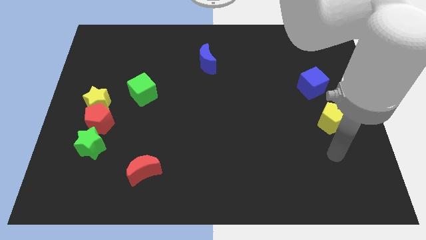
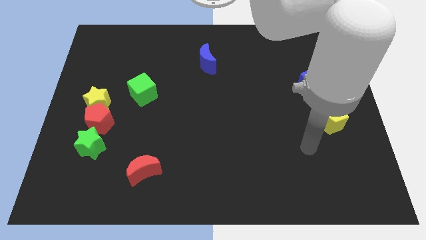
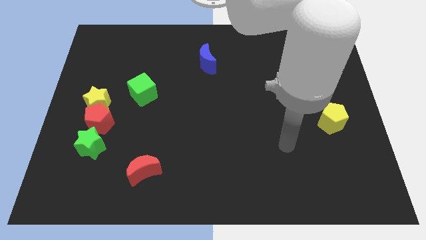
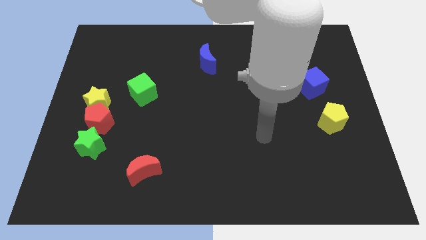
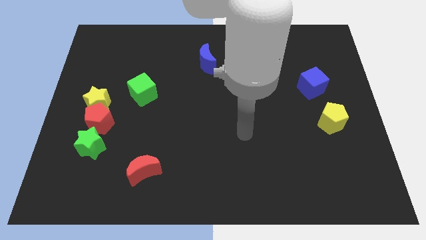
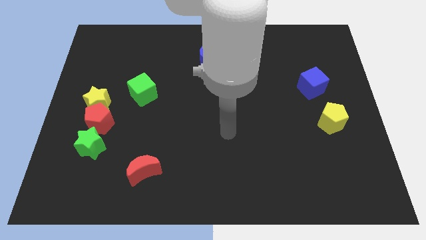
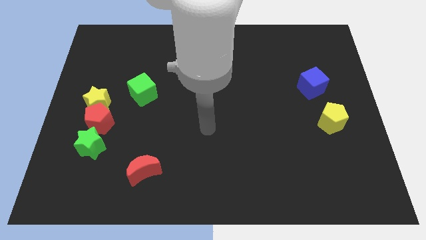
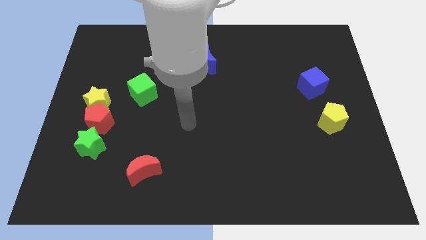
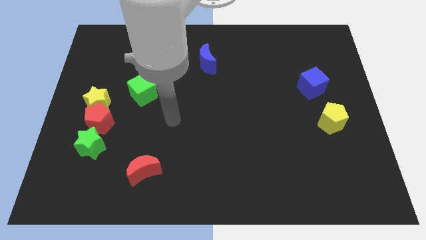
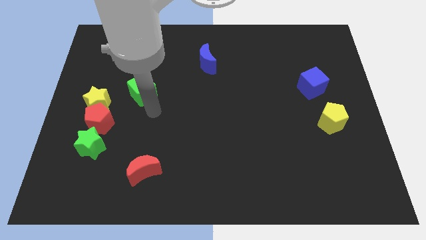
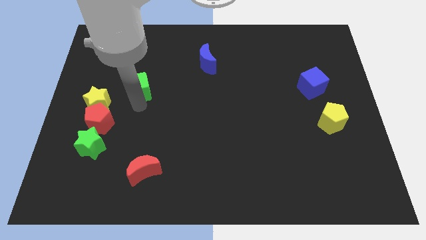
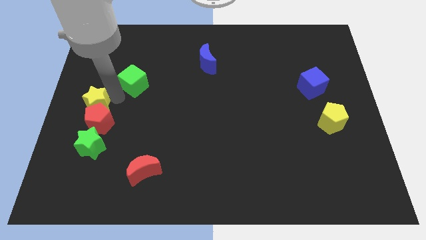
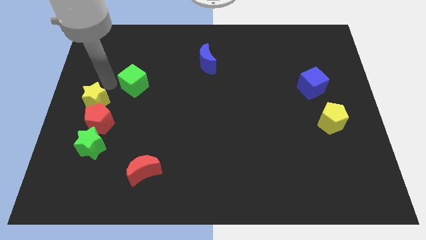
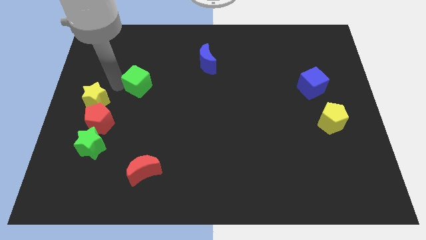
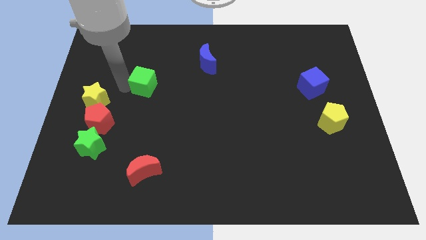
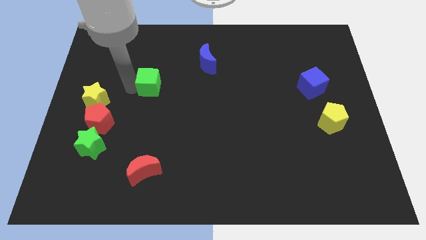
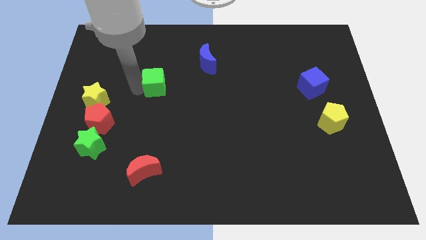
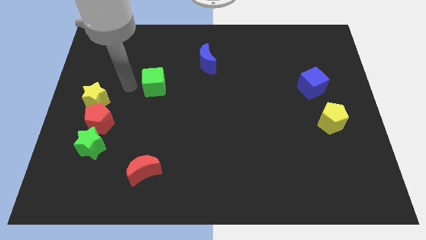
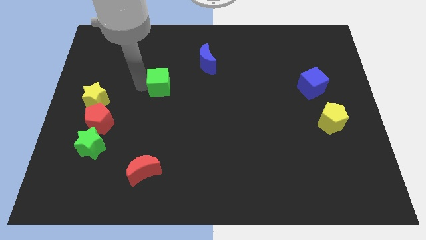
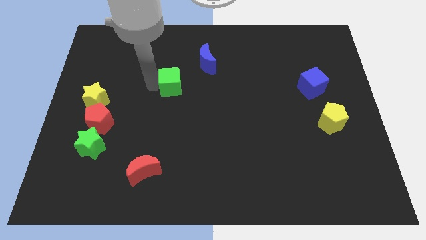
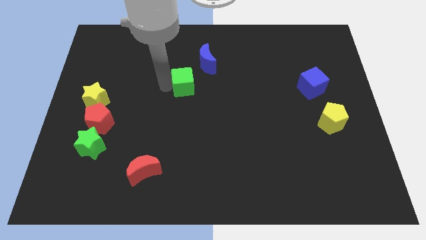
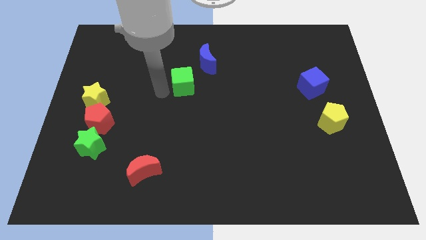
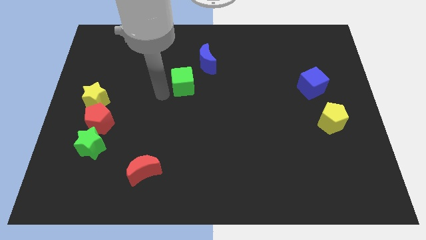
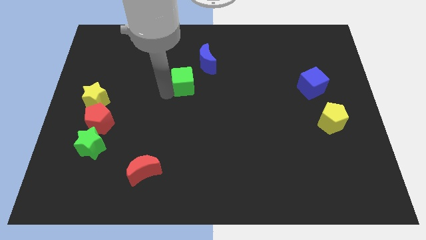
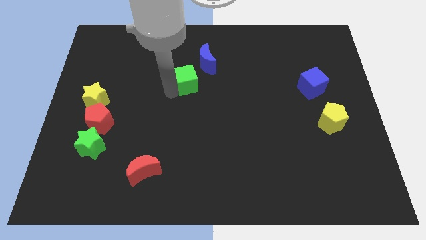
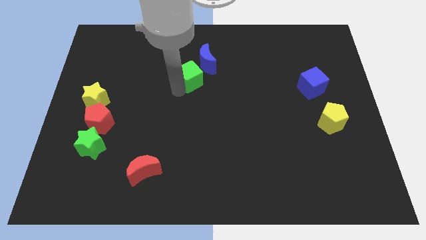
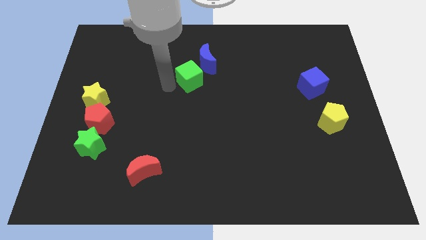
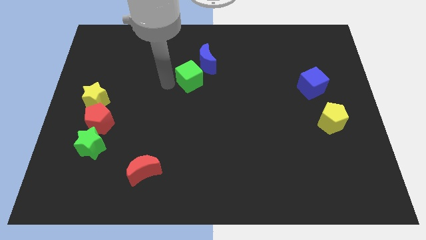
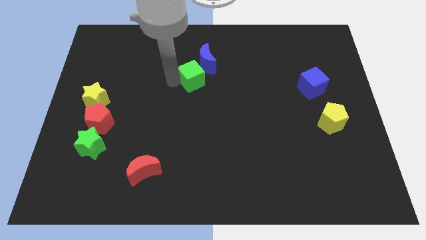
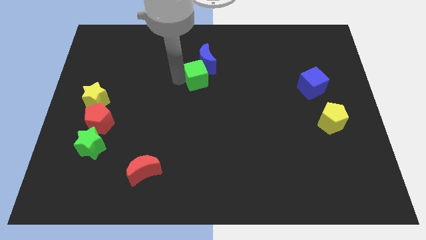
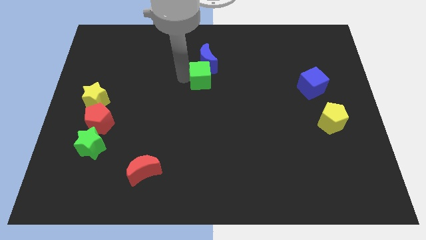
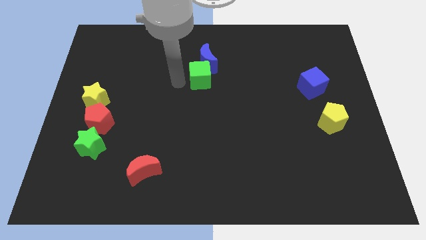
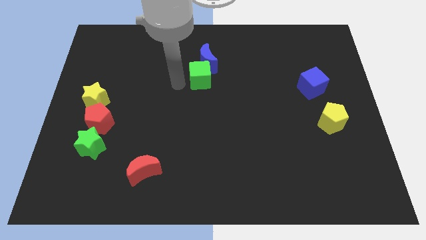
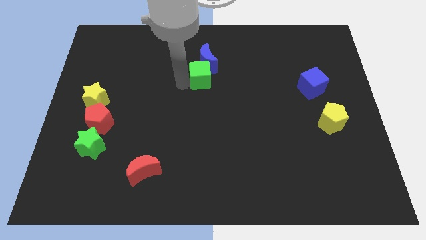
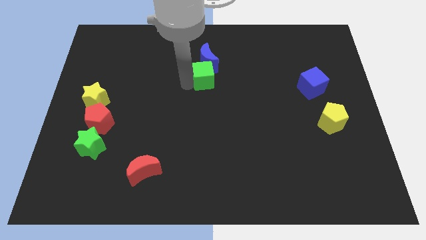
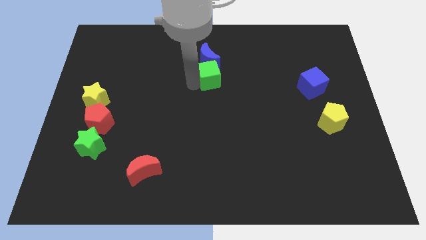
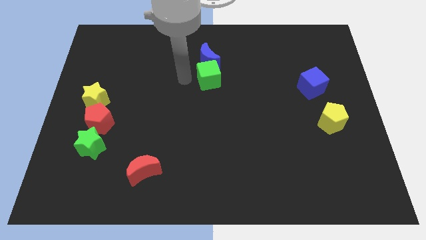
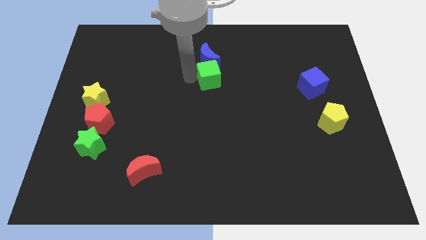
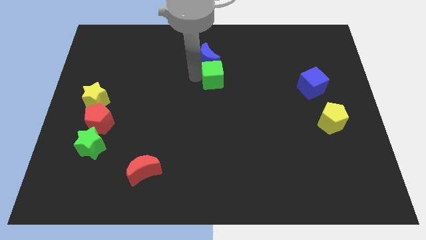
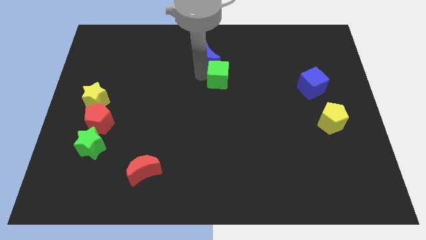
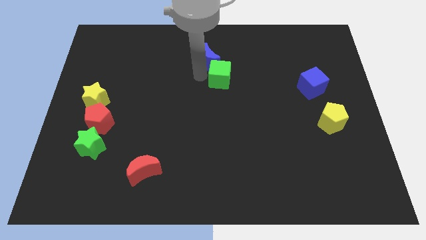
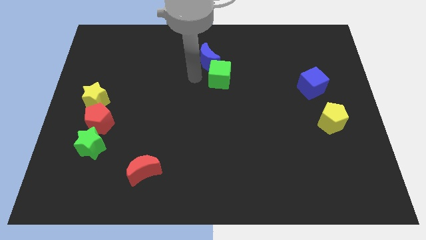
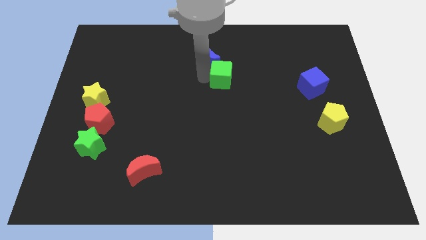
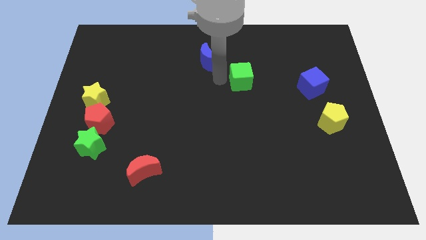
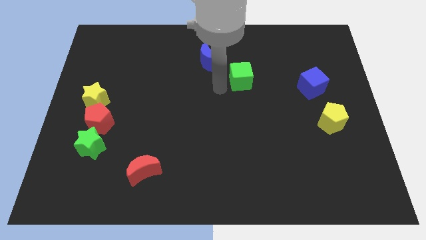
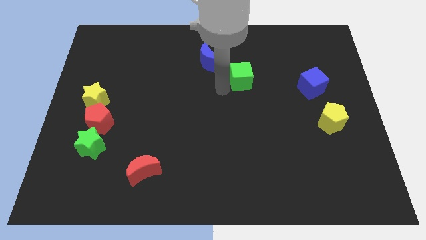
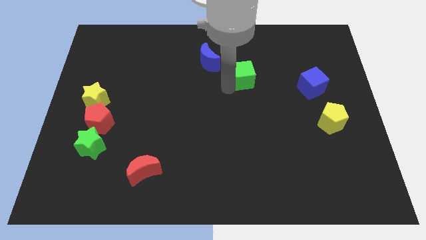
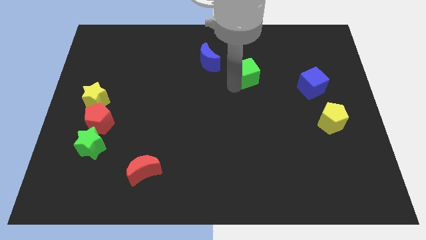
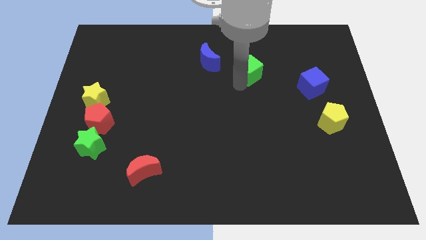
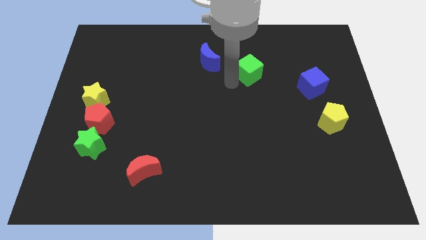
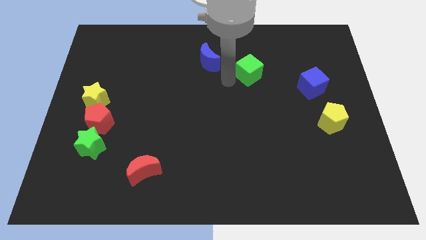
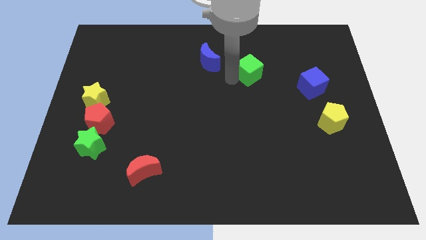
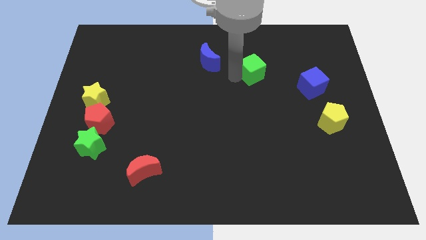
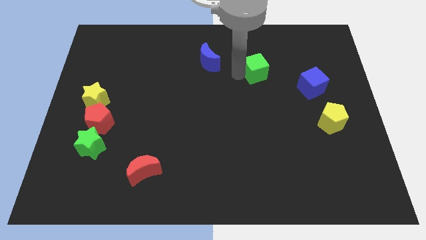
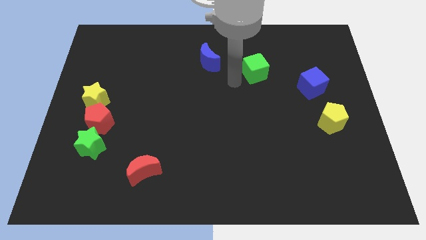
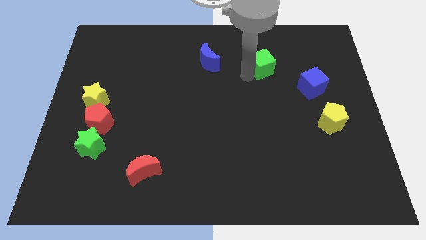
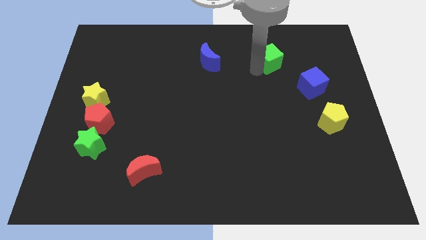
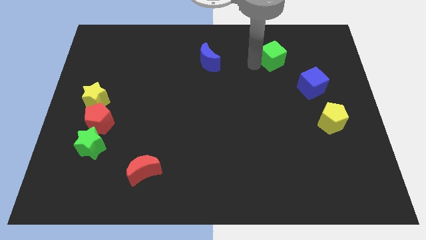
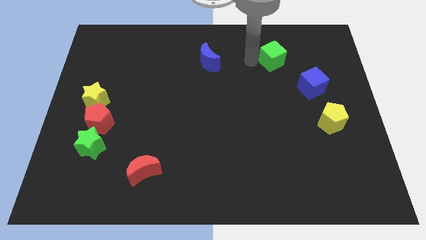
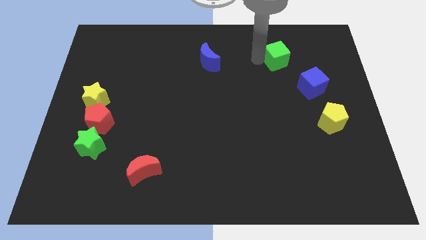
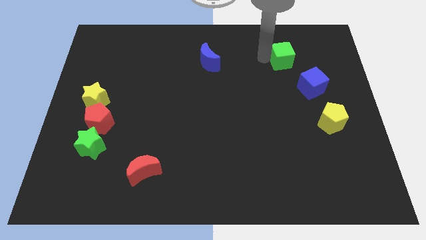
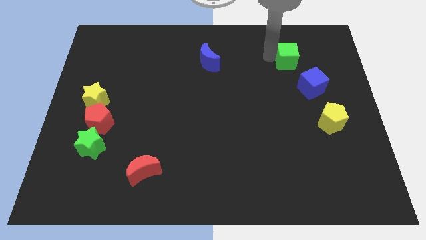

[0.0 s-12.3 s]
slide the green cube to the top of the blue cube

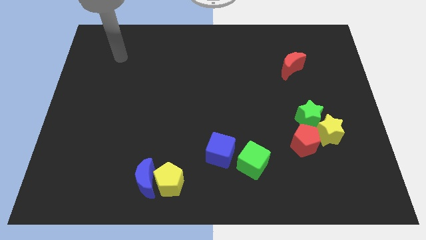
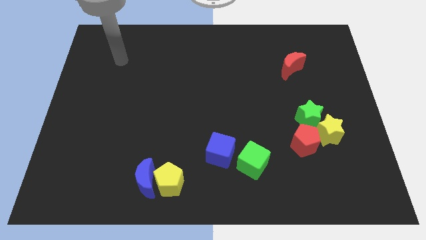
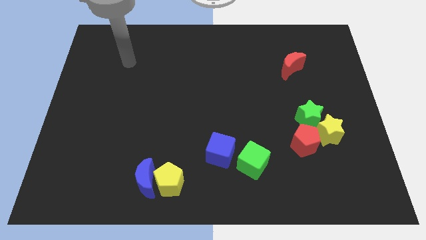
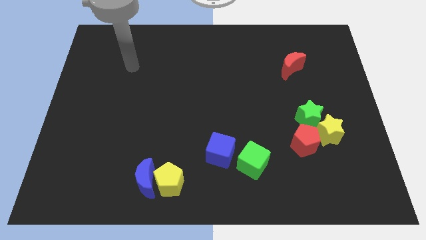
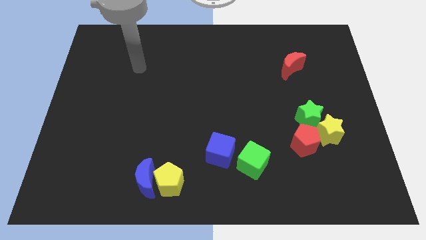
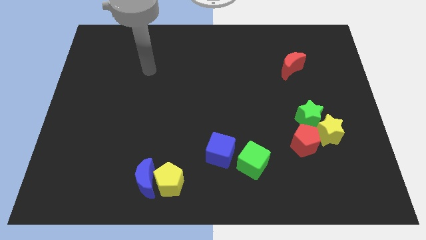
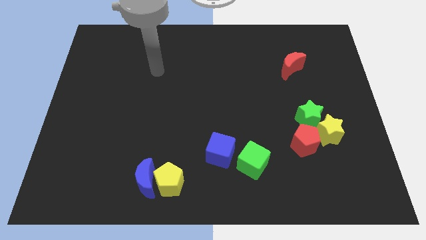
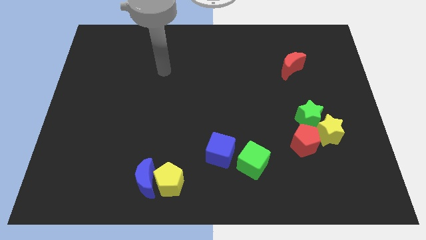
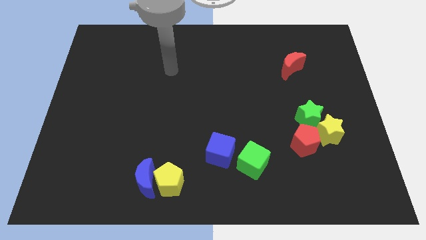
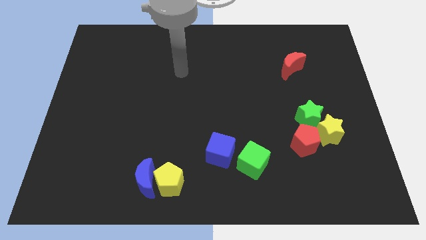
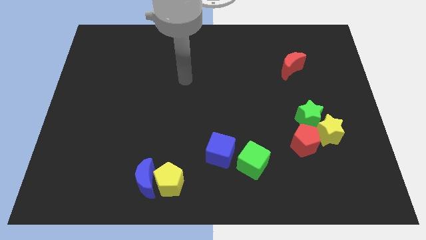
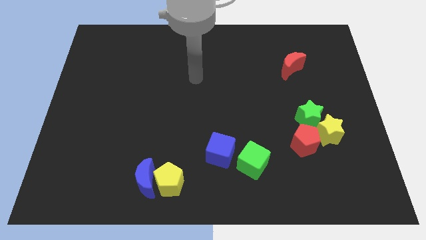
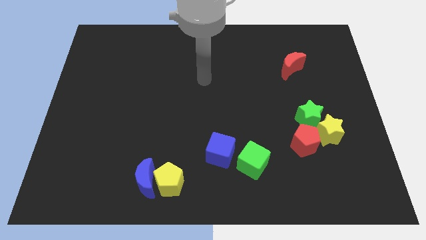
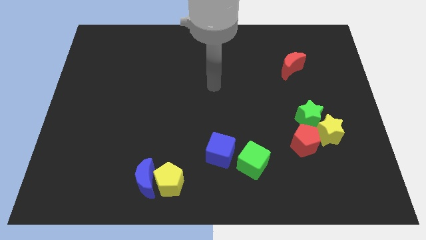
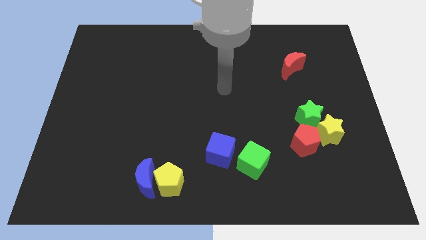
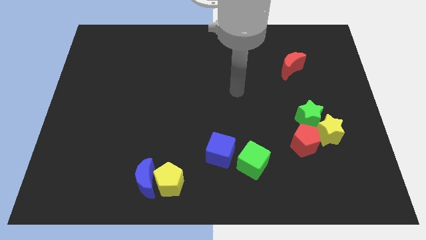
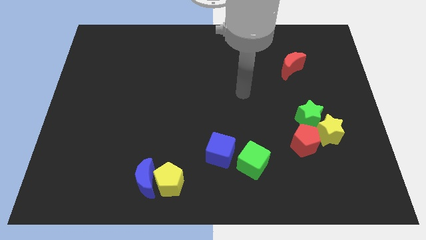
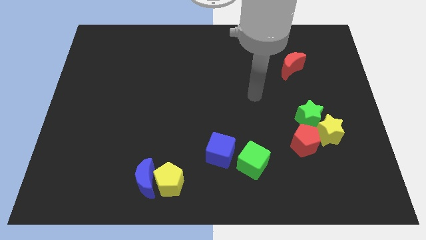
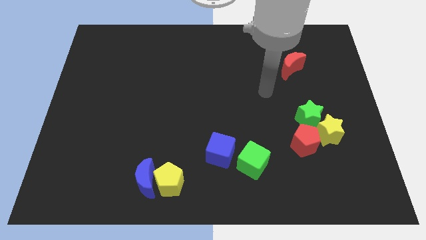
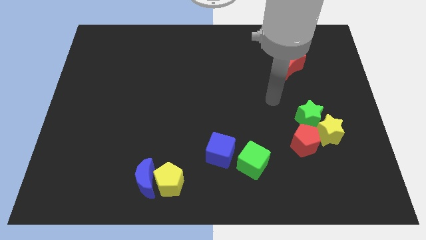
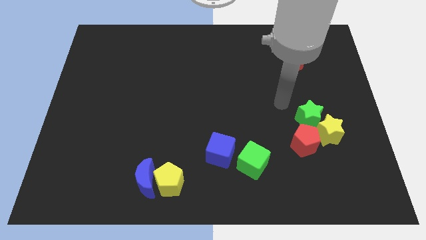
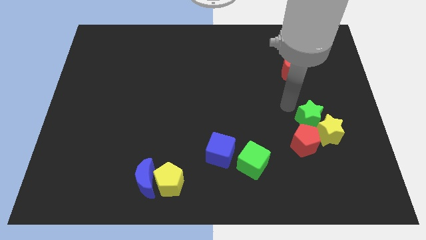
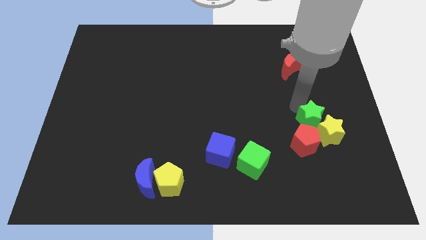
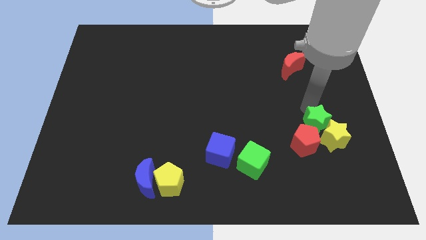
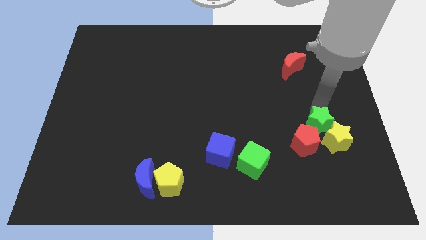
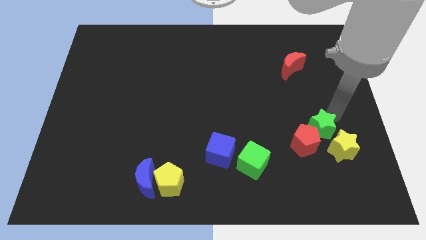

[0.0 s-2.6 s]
move the yellow star to the bottom right of the red pentagon
